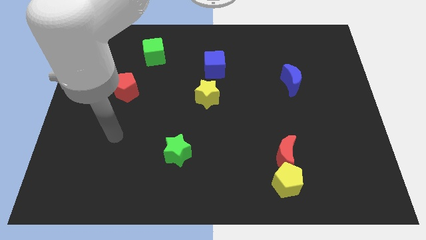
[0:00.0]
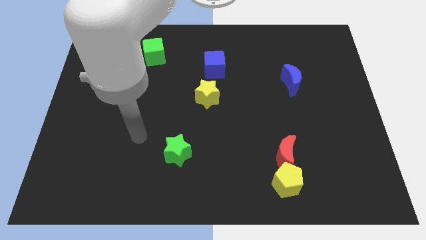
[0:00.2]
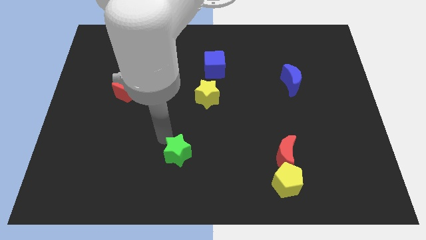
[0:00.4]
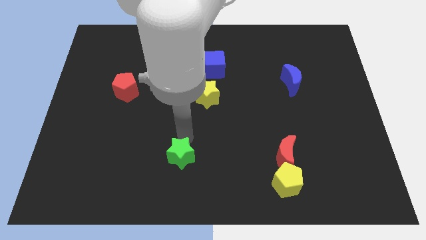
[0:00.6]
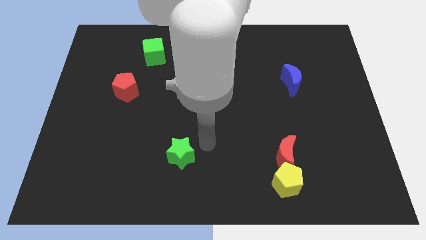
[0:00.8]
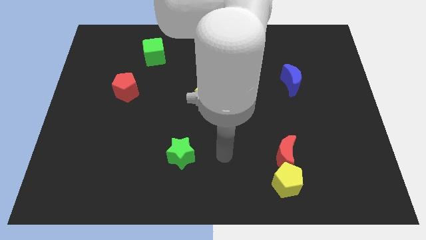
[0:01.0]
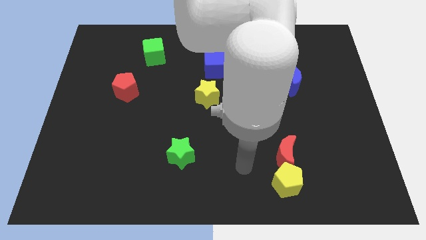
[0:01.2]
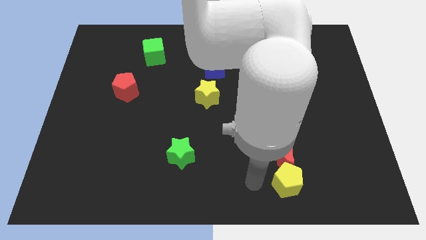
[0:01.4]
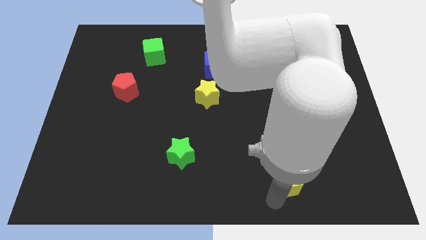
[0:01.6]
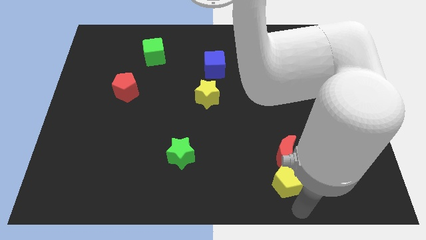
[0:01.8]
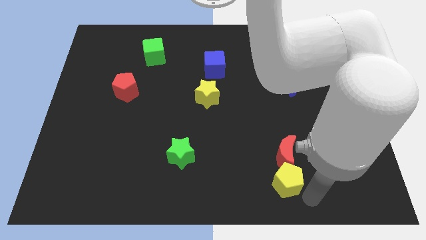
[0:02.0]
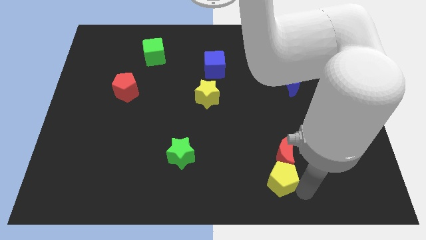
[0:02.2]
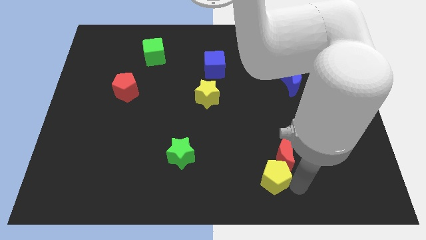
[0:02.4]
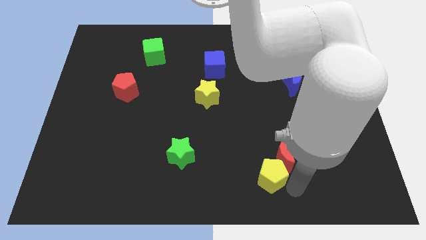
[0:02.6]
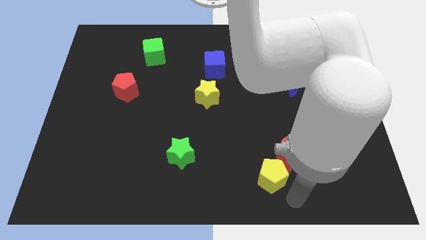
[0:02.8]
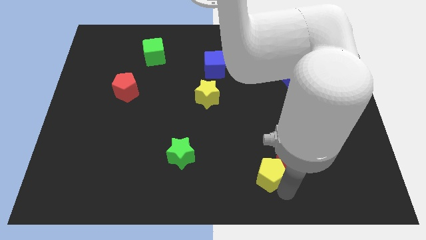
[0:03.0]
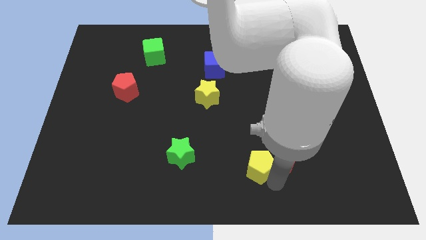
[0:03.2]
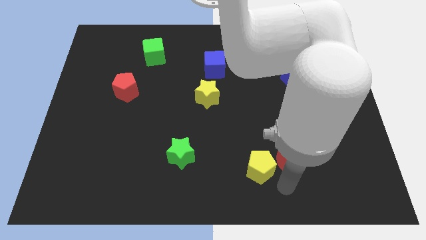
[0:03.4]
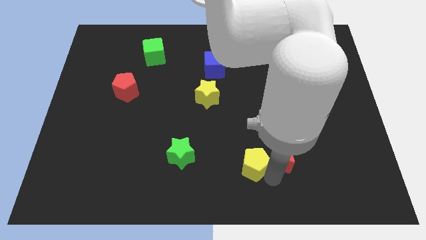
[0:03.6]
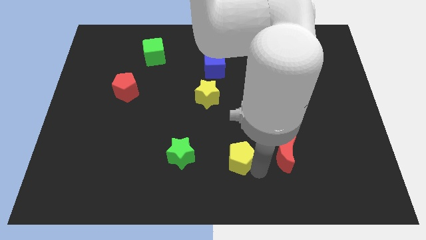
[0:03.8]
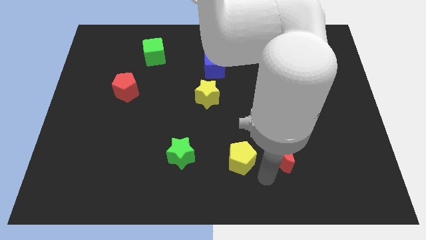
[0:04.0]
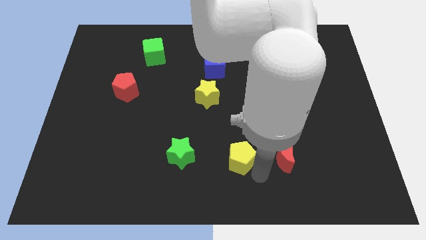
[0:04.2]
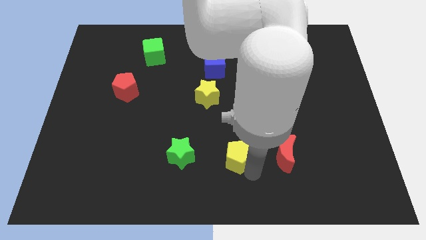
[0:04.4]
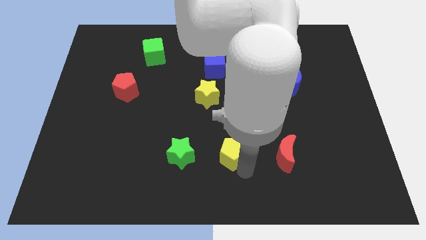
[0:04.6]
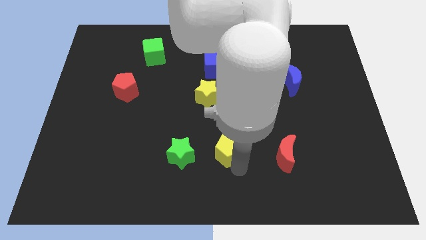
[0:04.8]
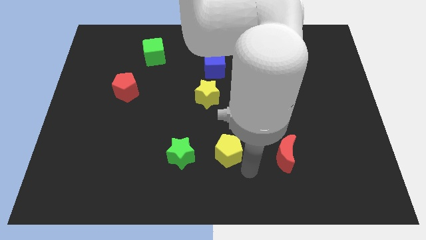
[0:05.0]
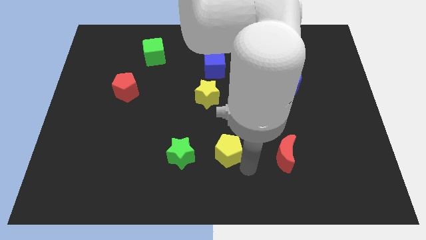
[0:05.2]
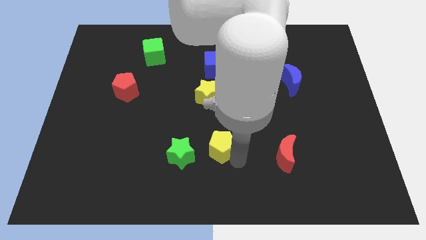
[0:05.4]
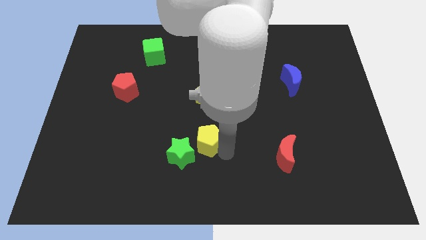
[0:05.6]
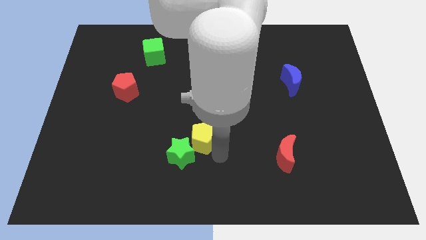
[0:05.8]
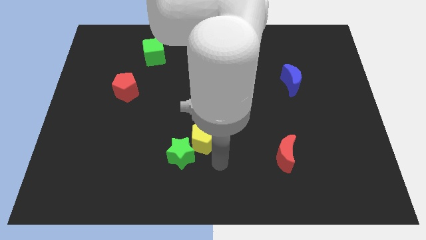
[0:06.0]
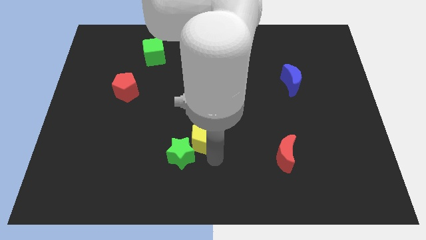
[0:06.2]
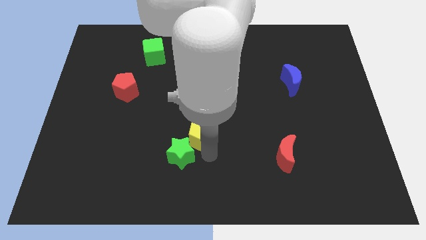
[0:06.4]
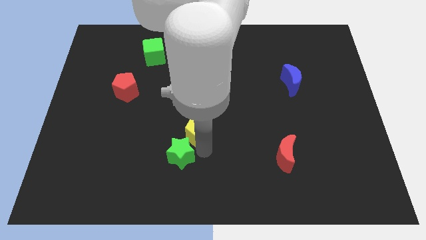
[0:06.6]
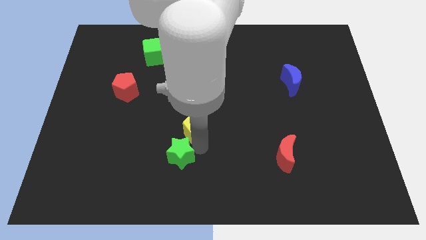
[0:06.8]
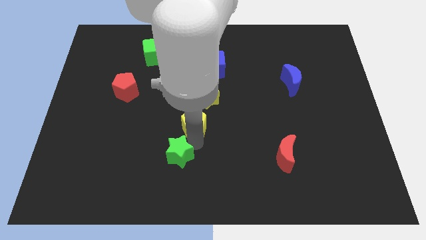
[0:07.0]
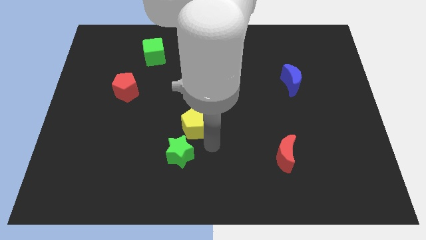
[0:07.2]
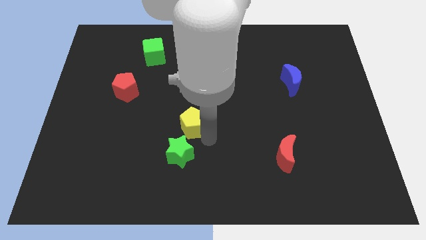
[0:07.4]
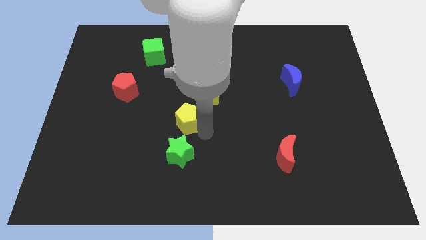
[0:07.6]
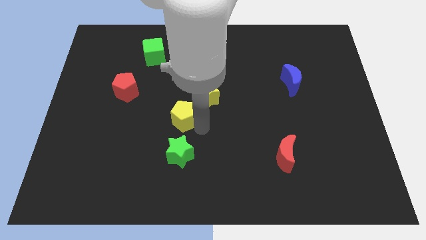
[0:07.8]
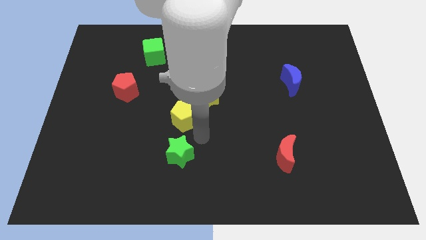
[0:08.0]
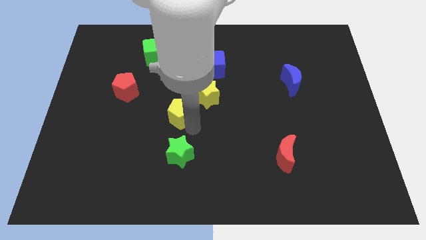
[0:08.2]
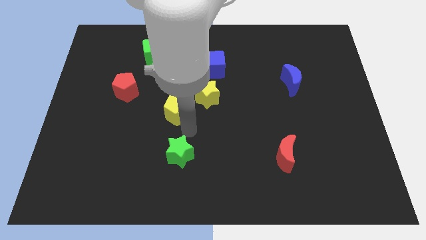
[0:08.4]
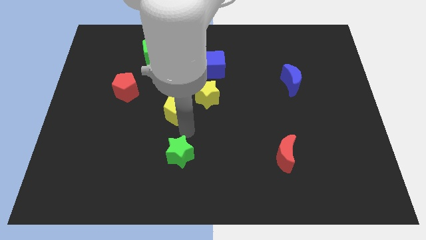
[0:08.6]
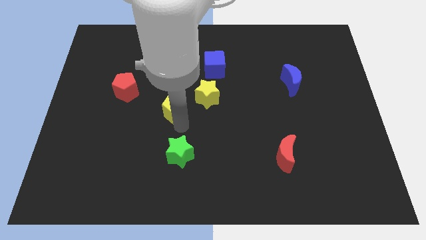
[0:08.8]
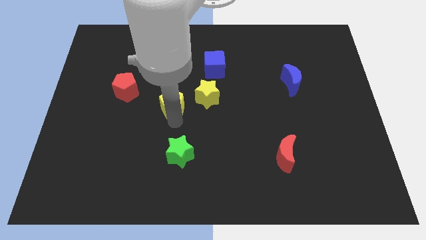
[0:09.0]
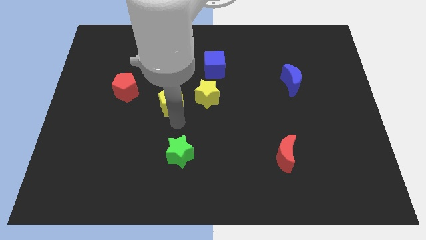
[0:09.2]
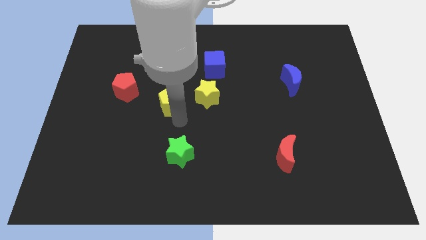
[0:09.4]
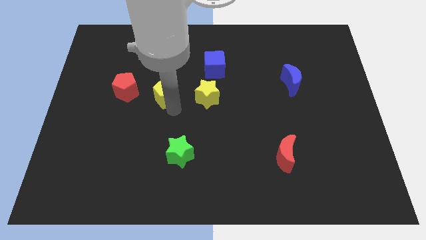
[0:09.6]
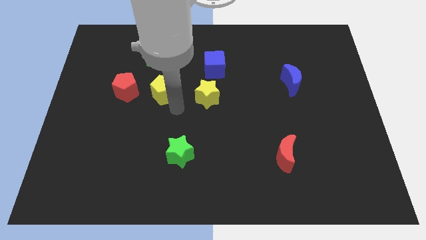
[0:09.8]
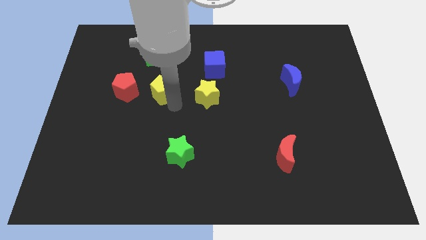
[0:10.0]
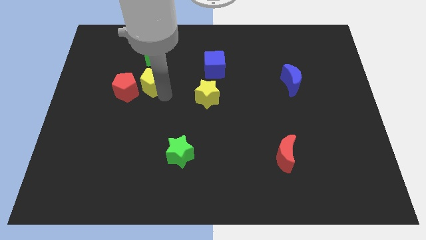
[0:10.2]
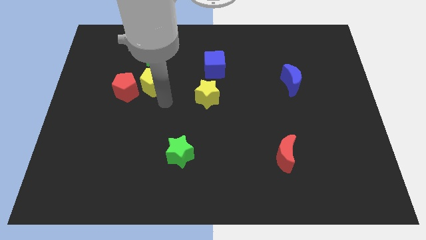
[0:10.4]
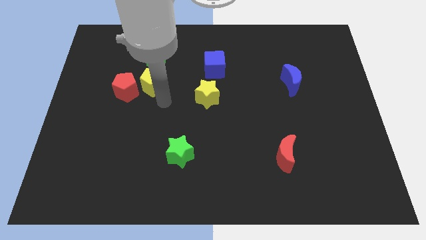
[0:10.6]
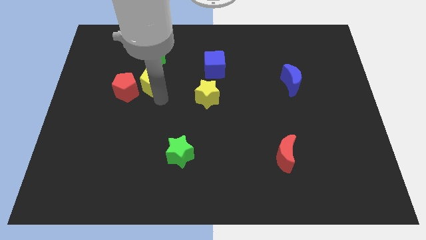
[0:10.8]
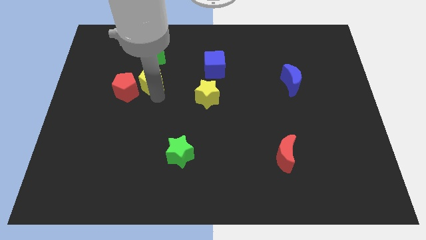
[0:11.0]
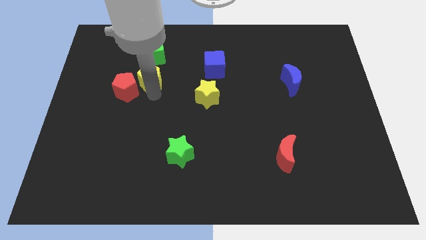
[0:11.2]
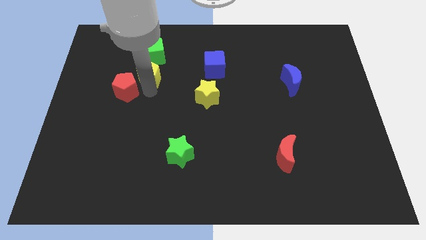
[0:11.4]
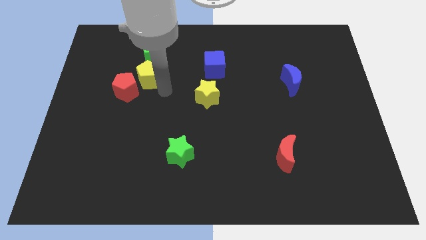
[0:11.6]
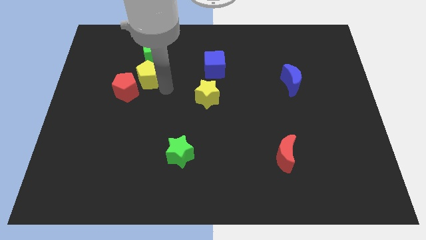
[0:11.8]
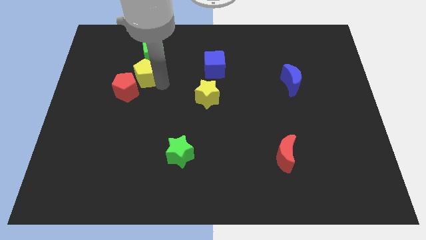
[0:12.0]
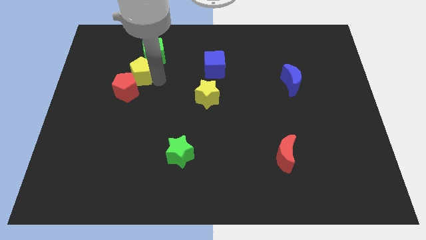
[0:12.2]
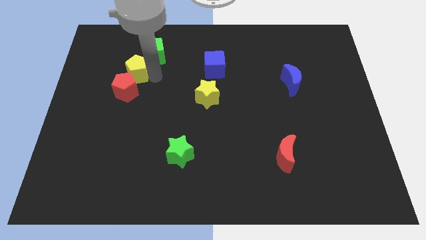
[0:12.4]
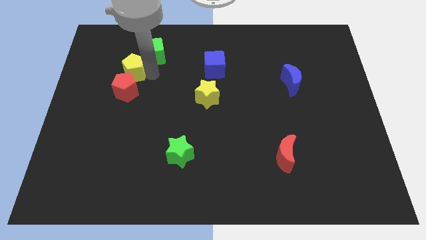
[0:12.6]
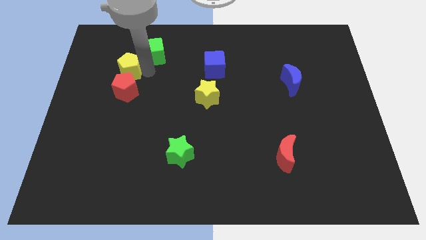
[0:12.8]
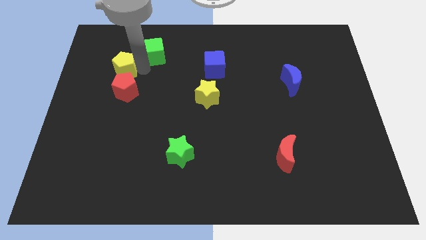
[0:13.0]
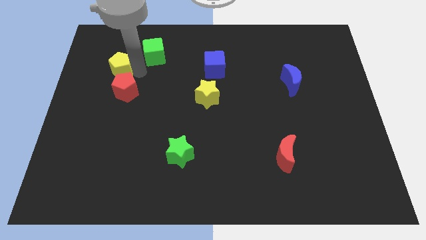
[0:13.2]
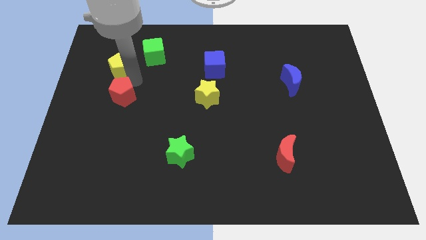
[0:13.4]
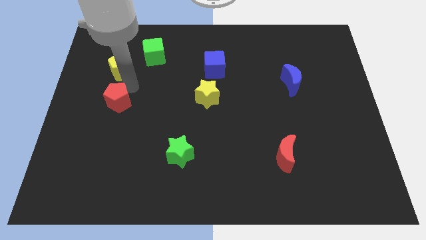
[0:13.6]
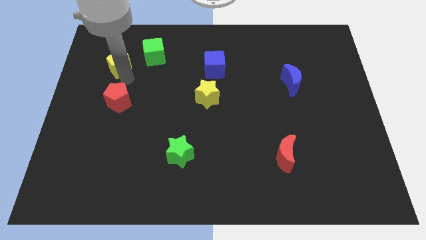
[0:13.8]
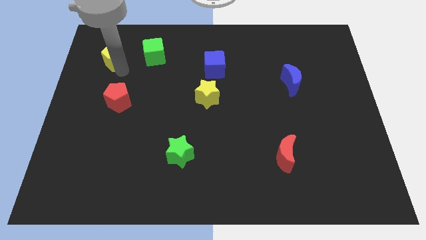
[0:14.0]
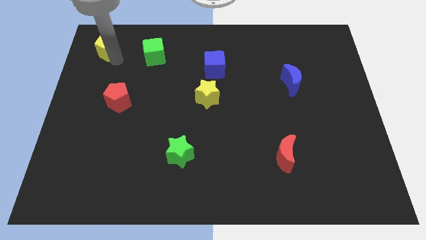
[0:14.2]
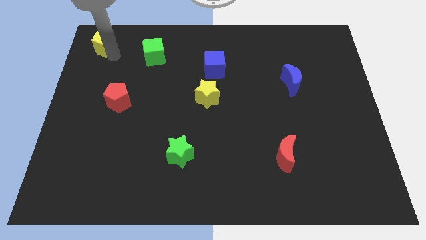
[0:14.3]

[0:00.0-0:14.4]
slide the yellow pentagon to the top left of the board
